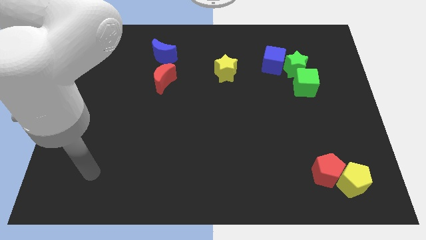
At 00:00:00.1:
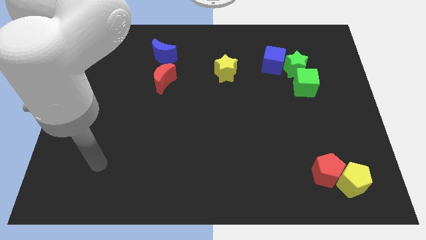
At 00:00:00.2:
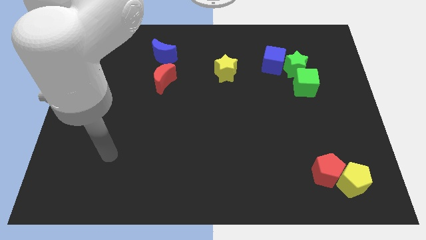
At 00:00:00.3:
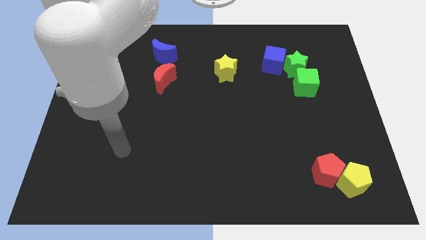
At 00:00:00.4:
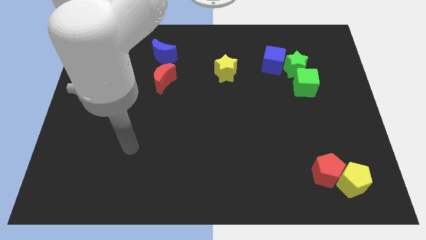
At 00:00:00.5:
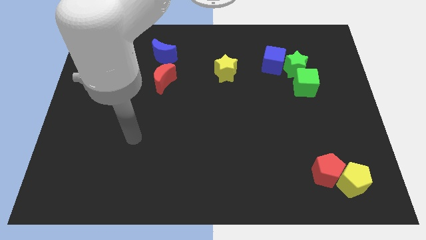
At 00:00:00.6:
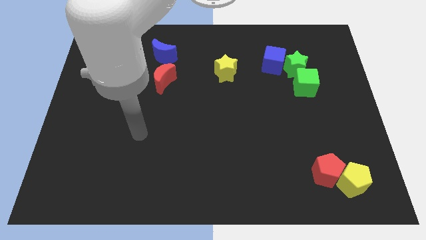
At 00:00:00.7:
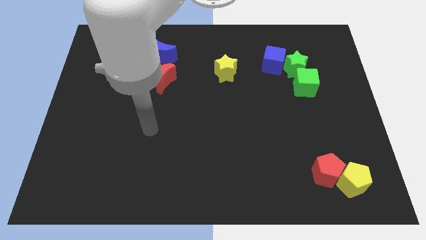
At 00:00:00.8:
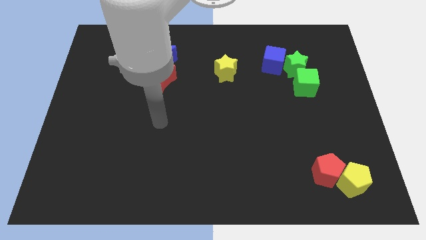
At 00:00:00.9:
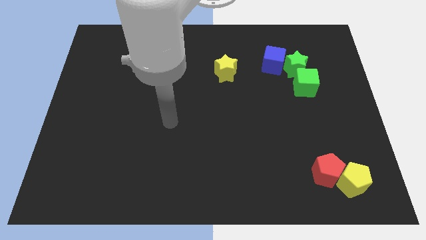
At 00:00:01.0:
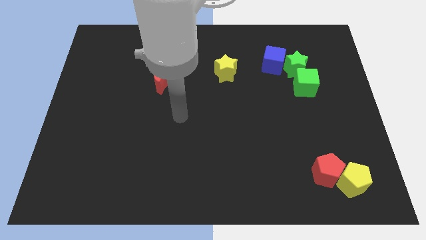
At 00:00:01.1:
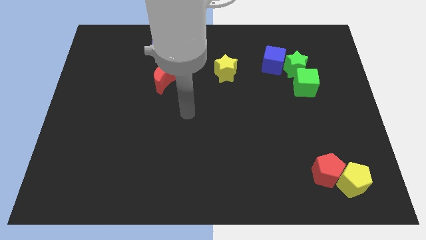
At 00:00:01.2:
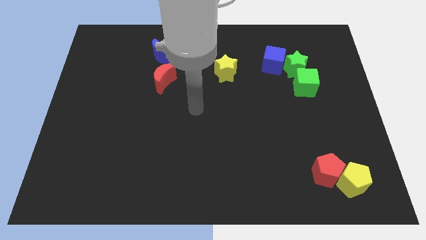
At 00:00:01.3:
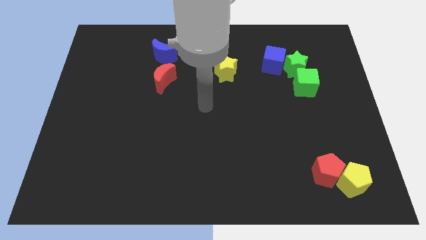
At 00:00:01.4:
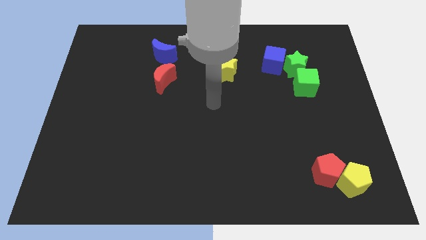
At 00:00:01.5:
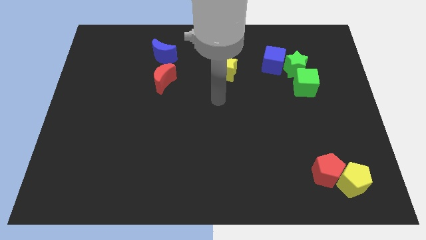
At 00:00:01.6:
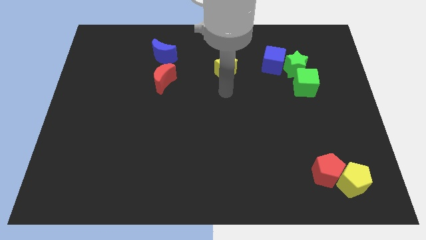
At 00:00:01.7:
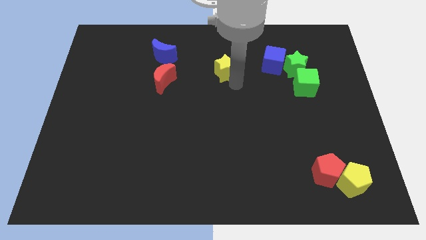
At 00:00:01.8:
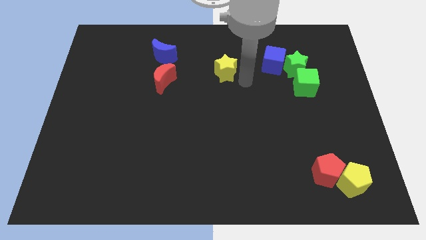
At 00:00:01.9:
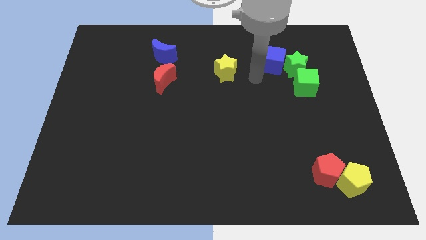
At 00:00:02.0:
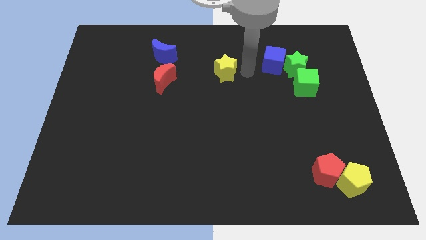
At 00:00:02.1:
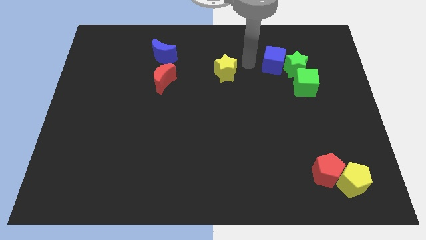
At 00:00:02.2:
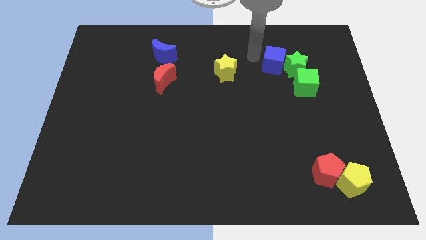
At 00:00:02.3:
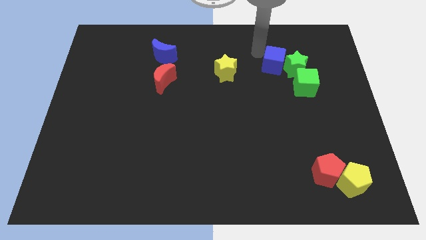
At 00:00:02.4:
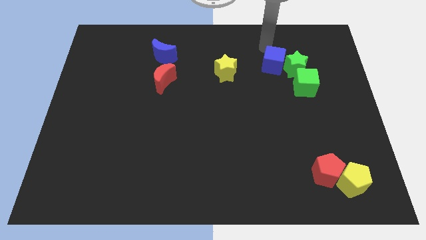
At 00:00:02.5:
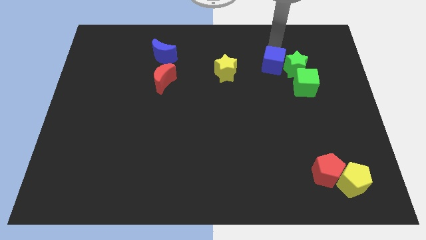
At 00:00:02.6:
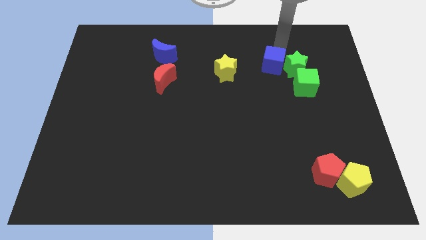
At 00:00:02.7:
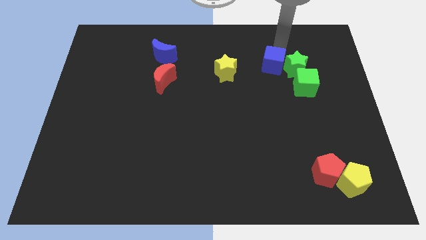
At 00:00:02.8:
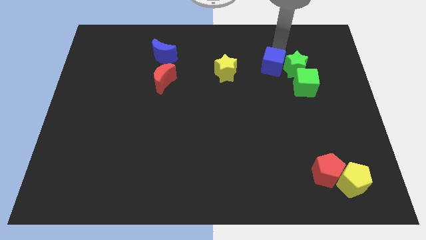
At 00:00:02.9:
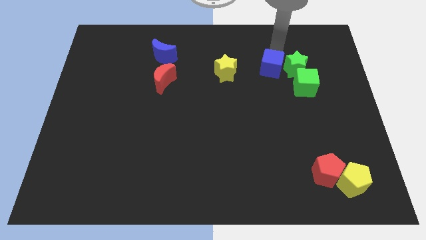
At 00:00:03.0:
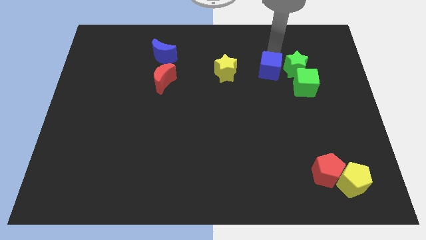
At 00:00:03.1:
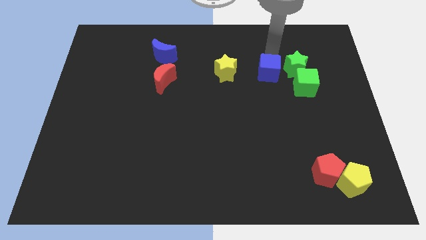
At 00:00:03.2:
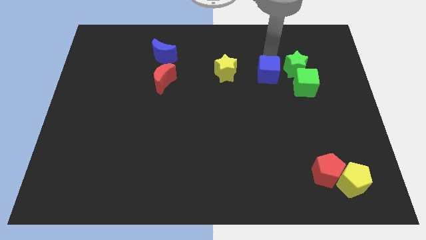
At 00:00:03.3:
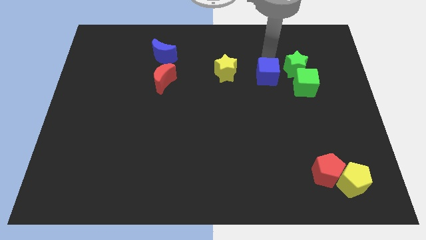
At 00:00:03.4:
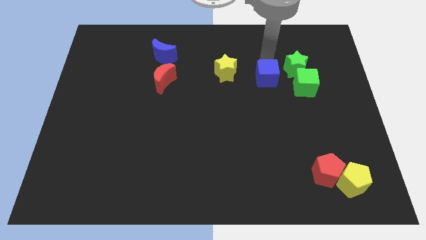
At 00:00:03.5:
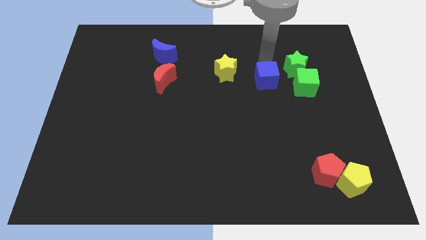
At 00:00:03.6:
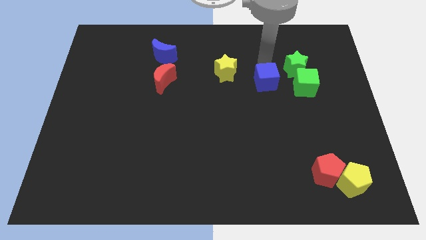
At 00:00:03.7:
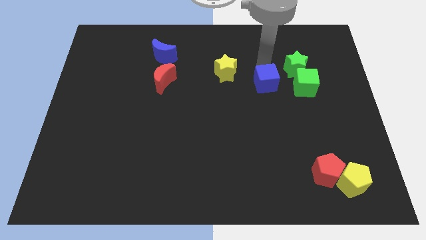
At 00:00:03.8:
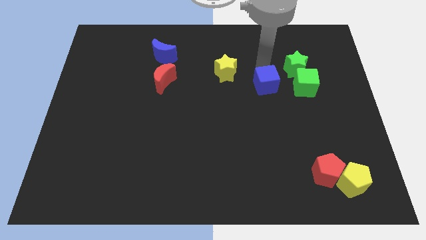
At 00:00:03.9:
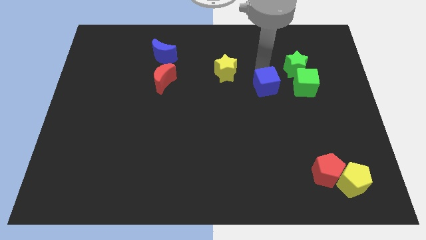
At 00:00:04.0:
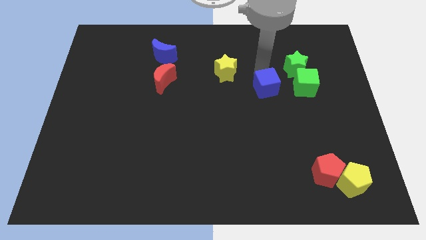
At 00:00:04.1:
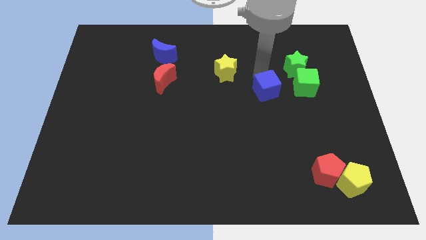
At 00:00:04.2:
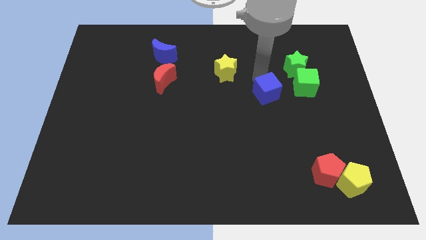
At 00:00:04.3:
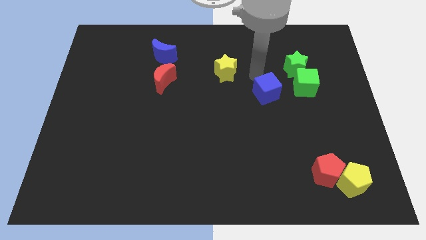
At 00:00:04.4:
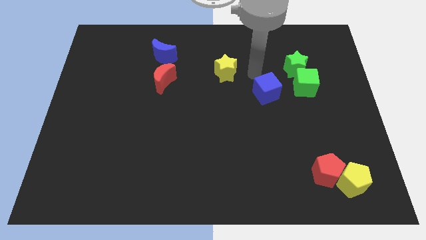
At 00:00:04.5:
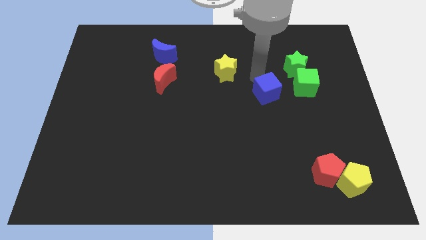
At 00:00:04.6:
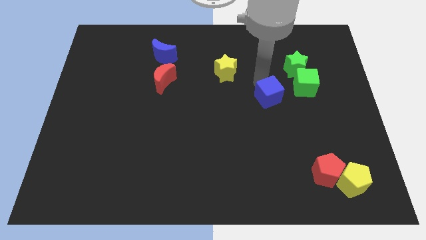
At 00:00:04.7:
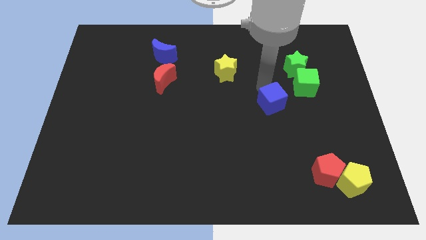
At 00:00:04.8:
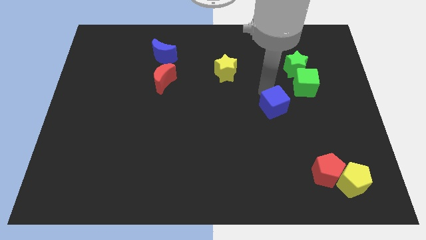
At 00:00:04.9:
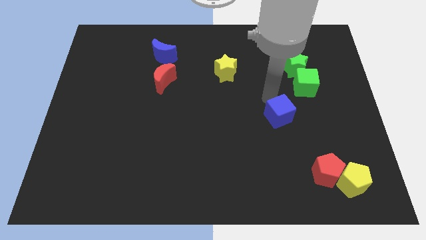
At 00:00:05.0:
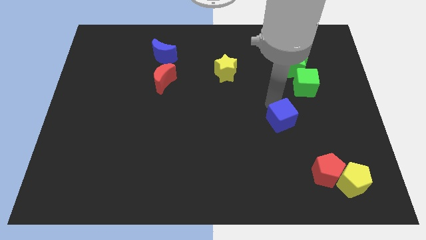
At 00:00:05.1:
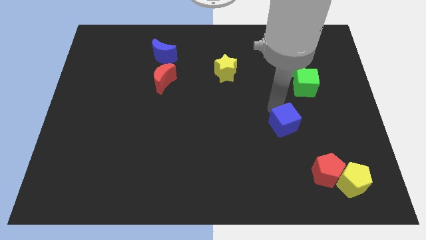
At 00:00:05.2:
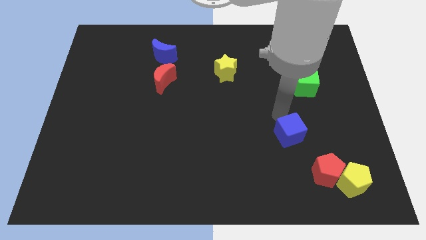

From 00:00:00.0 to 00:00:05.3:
push the blue cube to the top left side of the red pentagon

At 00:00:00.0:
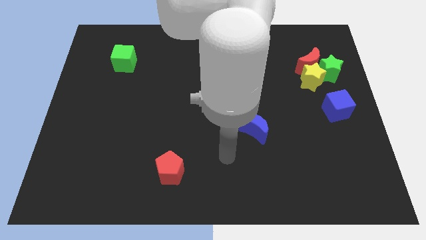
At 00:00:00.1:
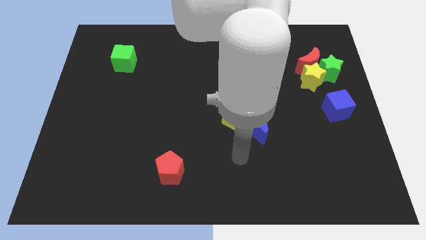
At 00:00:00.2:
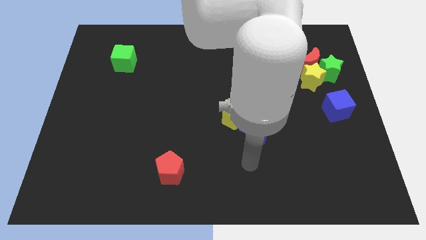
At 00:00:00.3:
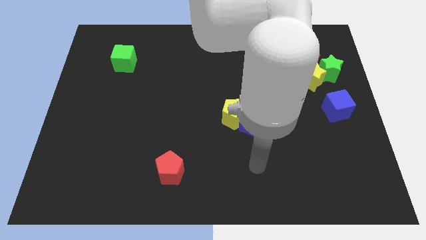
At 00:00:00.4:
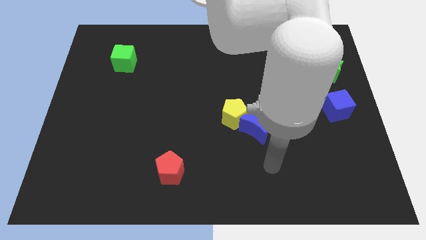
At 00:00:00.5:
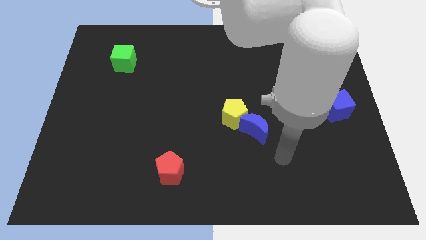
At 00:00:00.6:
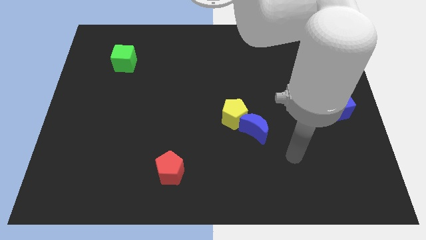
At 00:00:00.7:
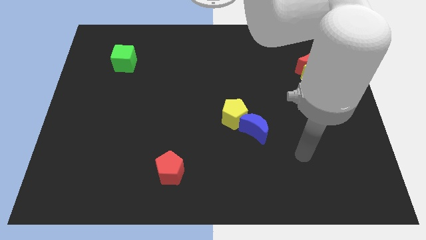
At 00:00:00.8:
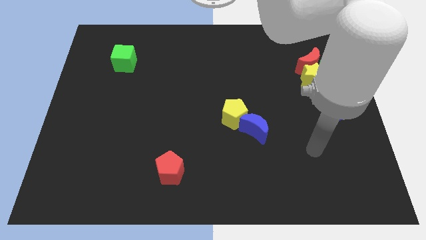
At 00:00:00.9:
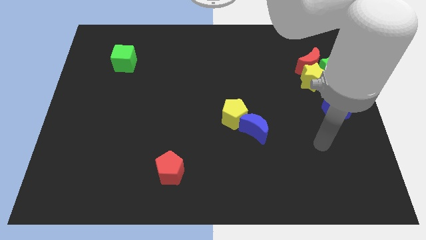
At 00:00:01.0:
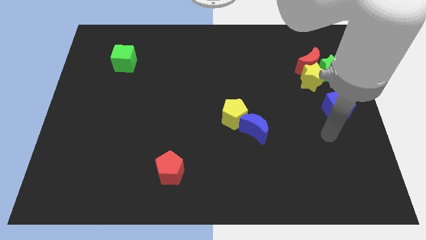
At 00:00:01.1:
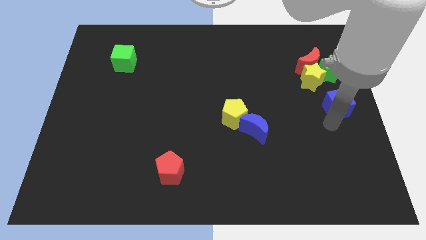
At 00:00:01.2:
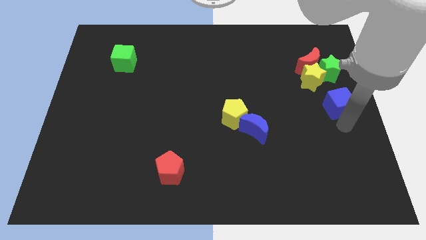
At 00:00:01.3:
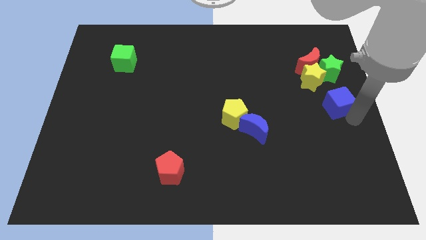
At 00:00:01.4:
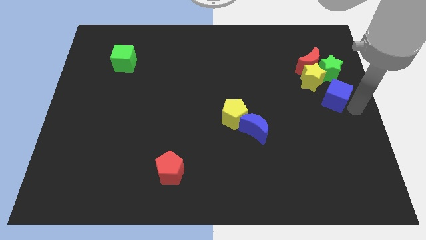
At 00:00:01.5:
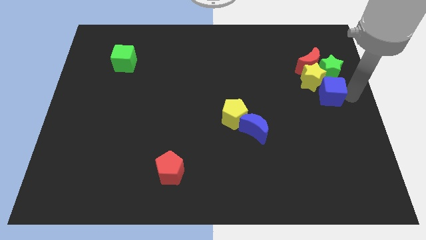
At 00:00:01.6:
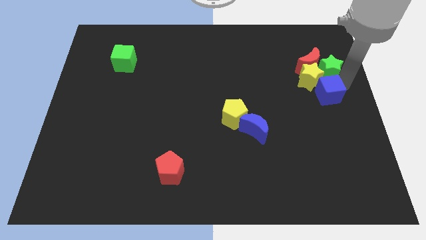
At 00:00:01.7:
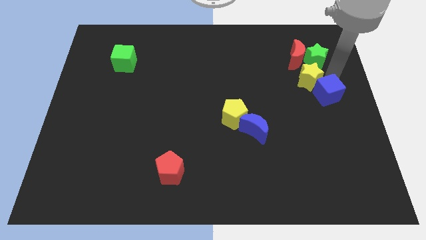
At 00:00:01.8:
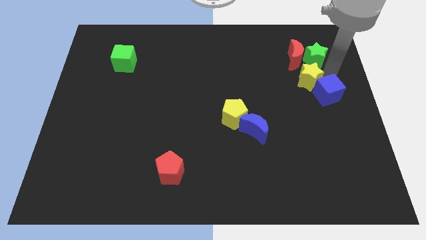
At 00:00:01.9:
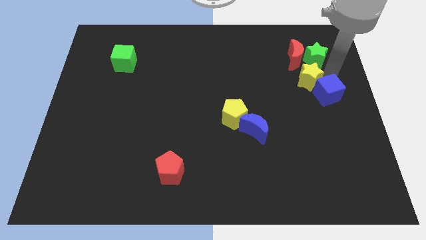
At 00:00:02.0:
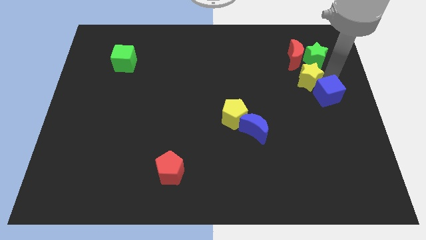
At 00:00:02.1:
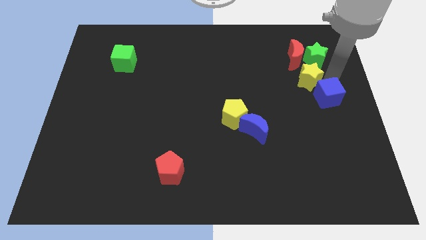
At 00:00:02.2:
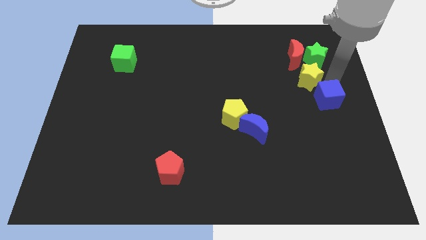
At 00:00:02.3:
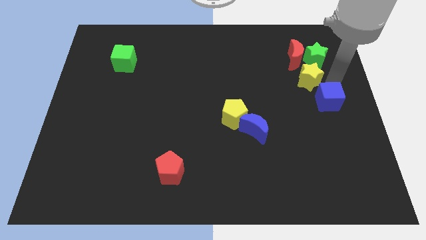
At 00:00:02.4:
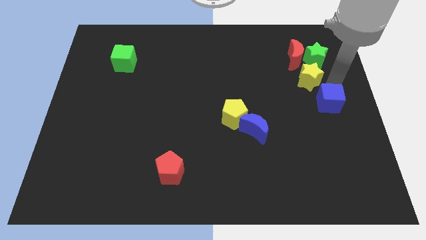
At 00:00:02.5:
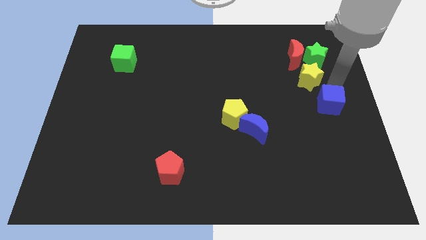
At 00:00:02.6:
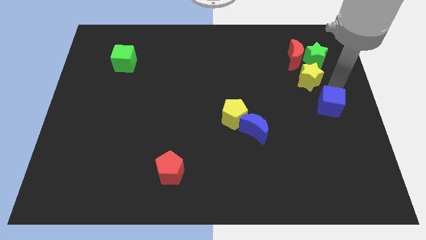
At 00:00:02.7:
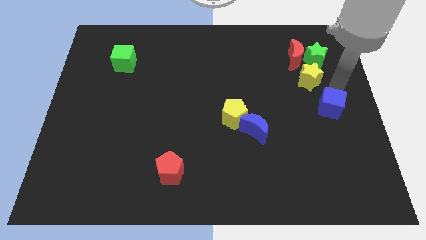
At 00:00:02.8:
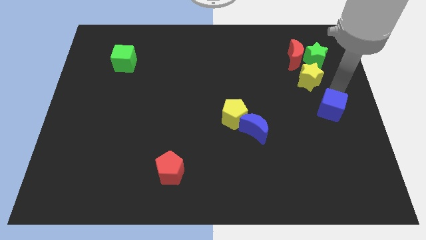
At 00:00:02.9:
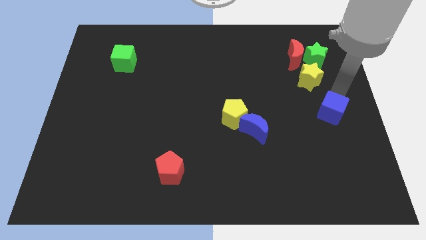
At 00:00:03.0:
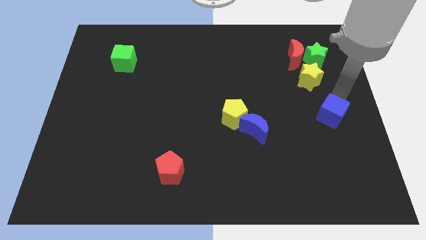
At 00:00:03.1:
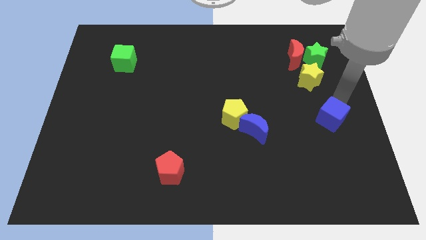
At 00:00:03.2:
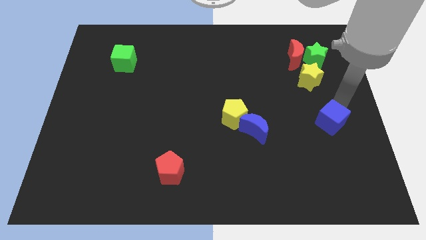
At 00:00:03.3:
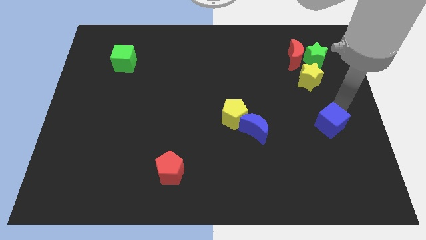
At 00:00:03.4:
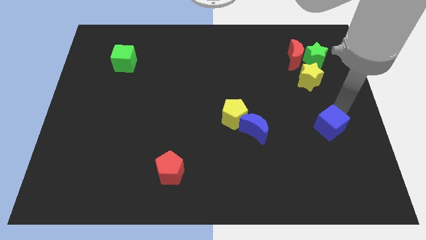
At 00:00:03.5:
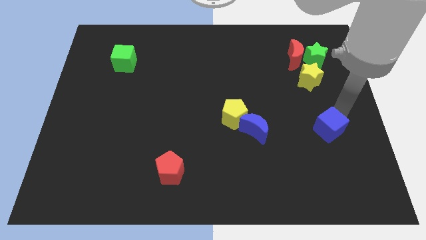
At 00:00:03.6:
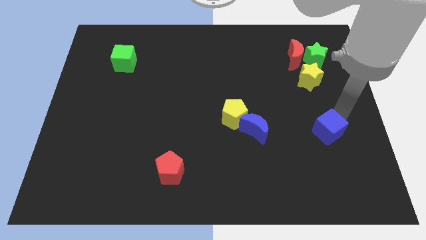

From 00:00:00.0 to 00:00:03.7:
put the blue cube to the right of the blue moon
